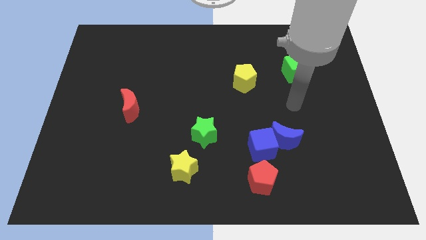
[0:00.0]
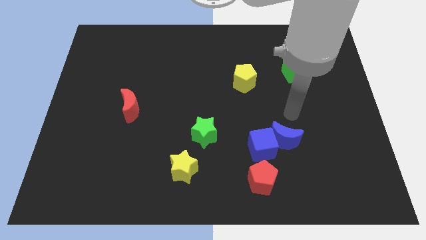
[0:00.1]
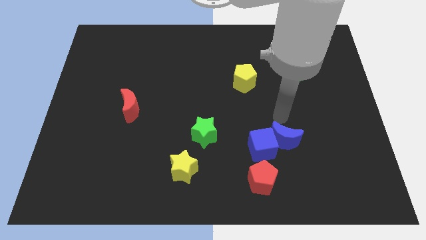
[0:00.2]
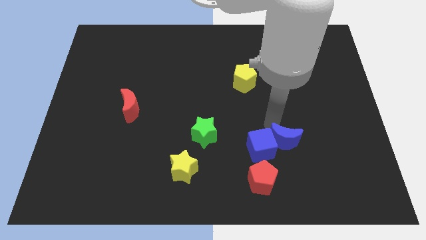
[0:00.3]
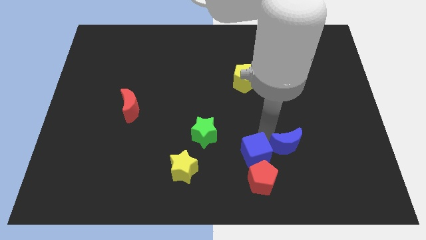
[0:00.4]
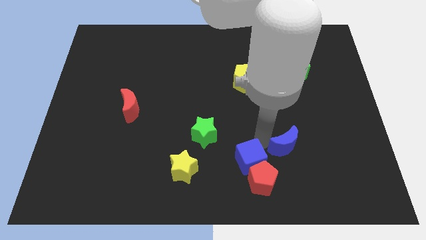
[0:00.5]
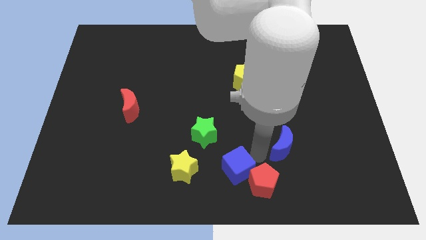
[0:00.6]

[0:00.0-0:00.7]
pull the blue moon apart from the blue cube

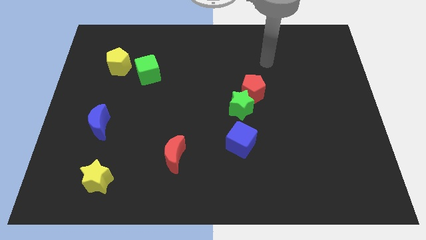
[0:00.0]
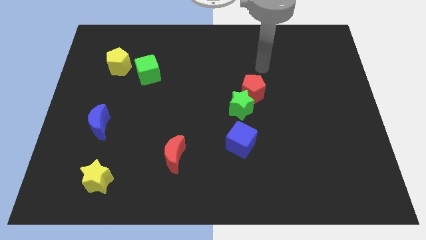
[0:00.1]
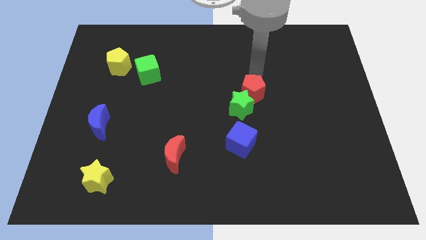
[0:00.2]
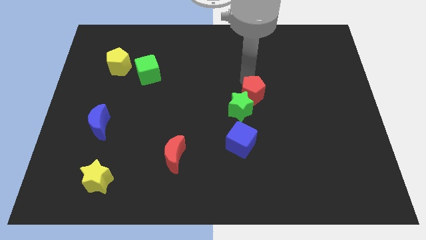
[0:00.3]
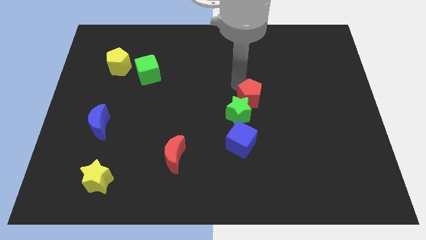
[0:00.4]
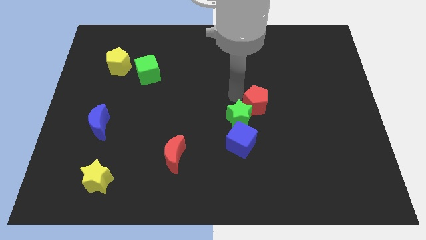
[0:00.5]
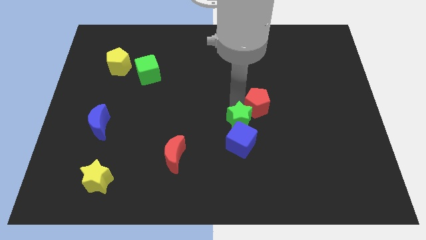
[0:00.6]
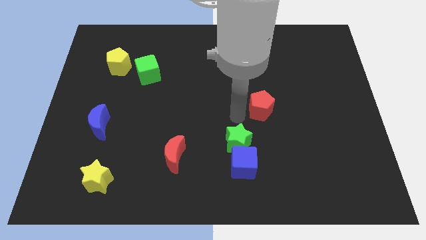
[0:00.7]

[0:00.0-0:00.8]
move the red pentagon away from the green star

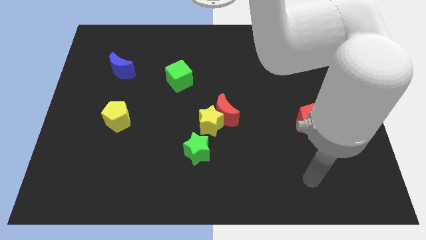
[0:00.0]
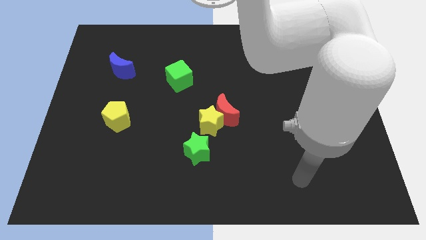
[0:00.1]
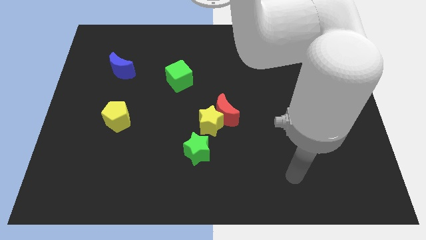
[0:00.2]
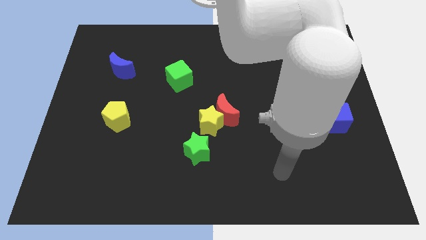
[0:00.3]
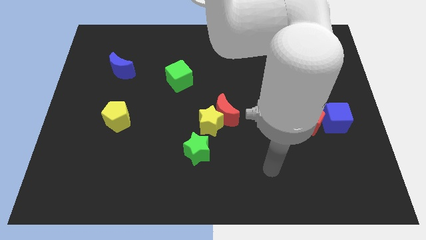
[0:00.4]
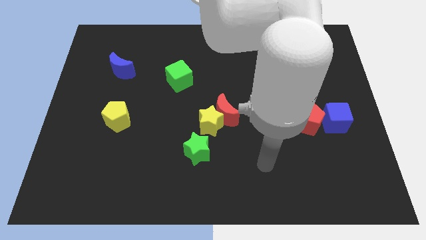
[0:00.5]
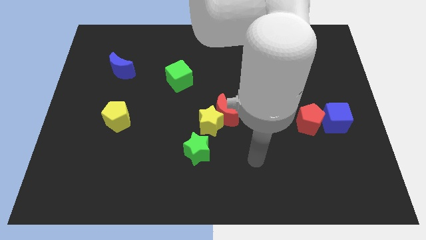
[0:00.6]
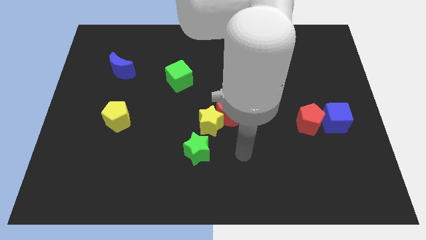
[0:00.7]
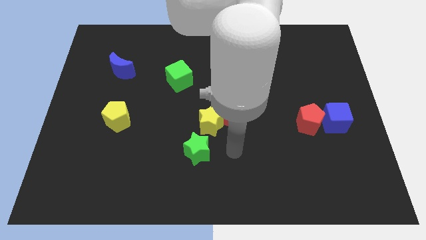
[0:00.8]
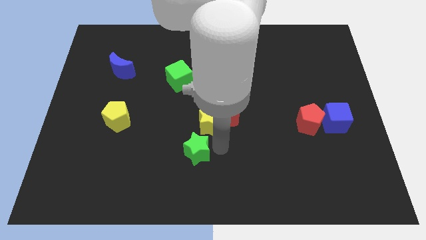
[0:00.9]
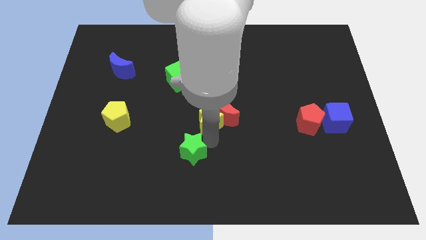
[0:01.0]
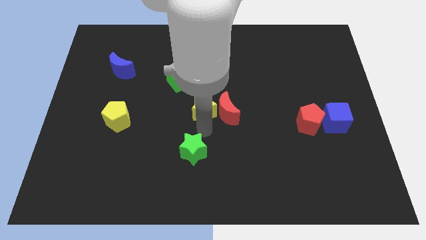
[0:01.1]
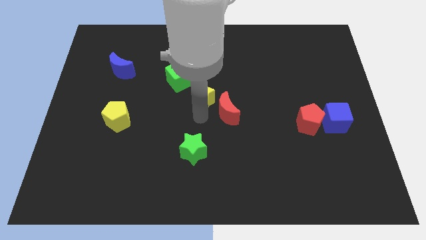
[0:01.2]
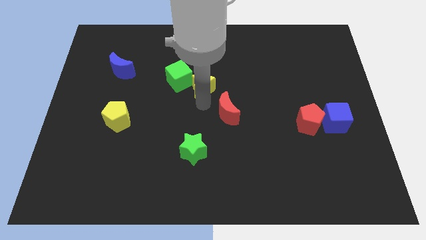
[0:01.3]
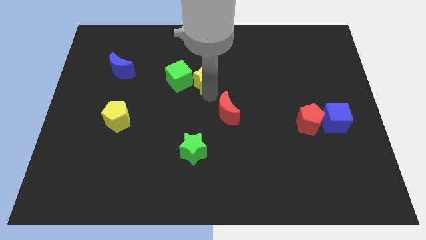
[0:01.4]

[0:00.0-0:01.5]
separate the red moon from the yellow star

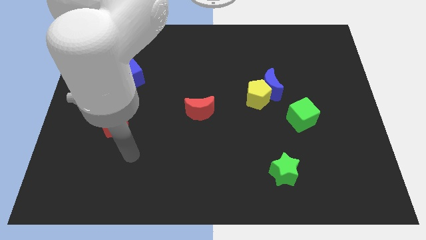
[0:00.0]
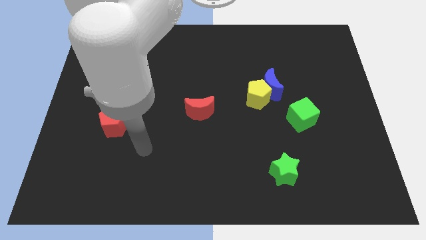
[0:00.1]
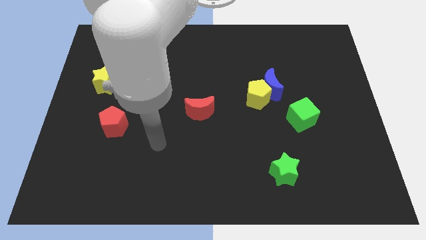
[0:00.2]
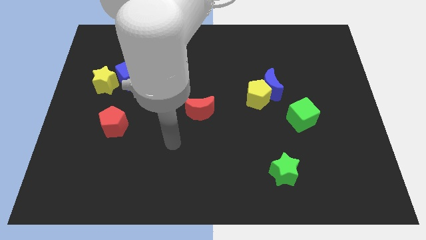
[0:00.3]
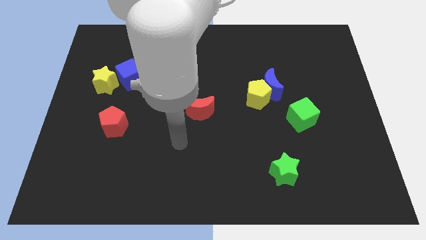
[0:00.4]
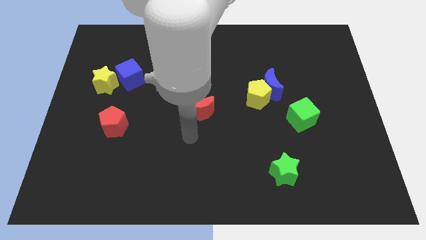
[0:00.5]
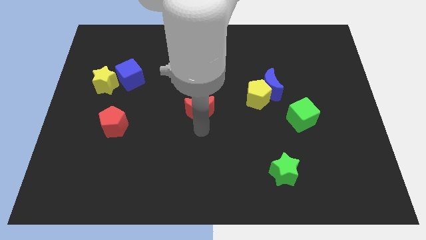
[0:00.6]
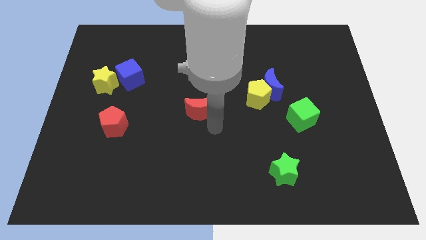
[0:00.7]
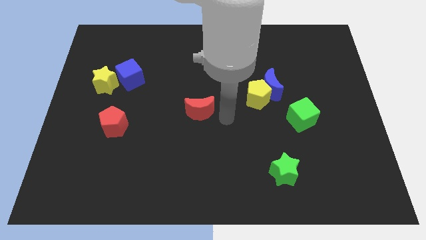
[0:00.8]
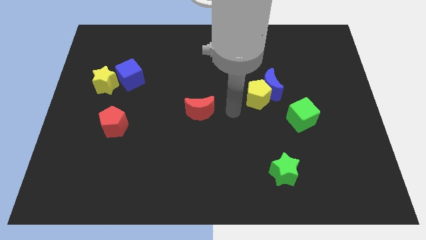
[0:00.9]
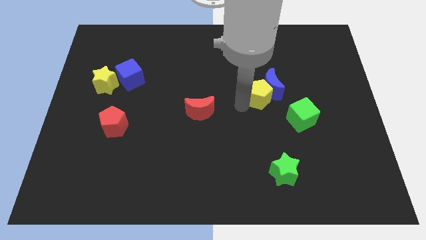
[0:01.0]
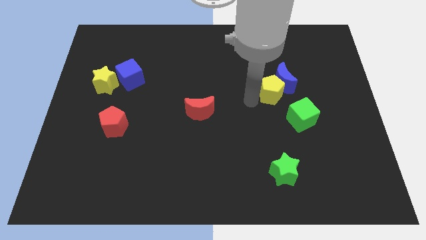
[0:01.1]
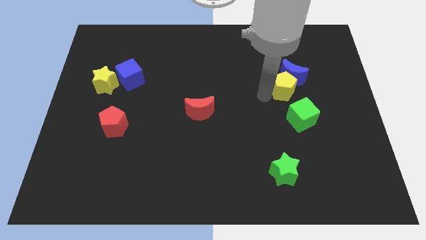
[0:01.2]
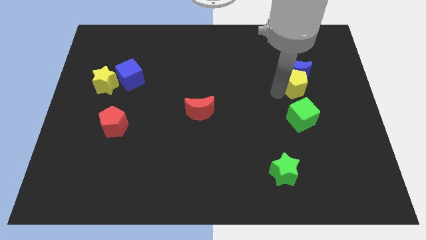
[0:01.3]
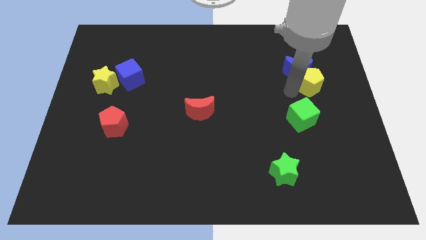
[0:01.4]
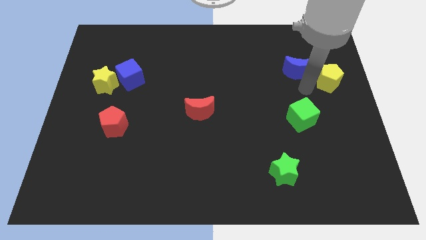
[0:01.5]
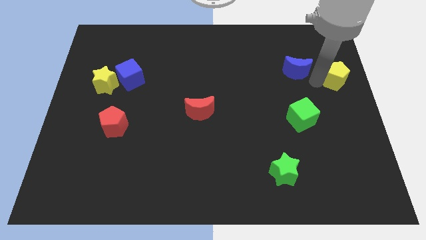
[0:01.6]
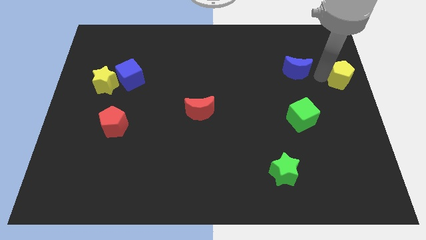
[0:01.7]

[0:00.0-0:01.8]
move the blue moon away from the yellow pentagon

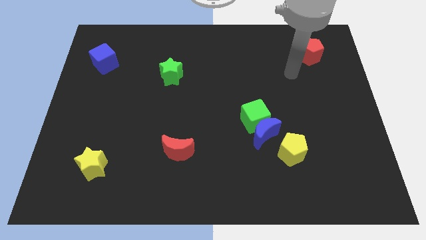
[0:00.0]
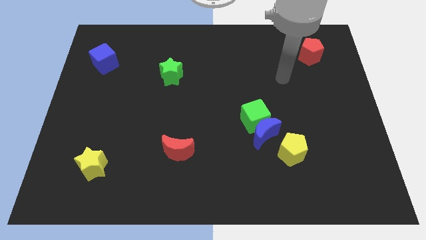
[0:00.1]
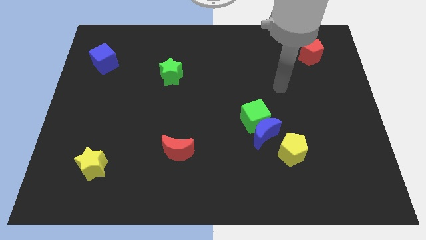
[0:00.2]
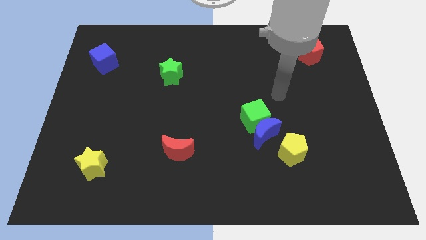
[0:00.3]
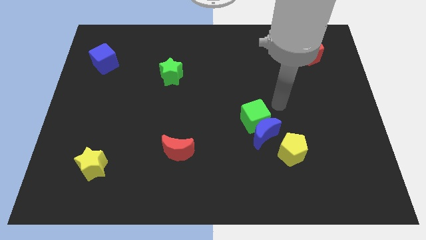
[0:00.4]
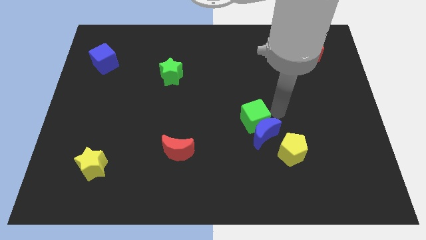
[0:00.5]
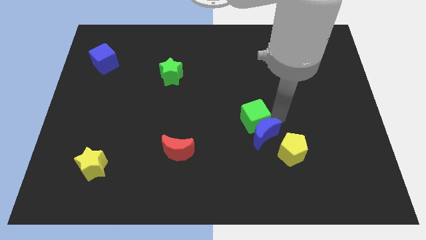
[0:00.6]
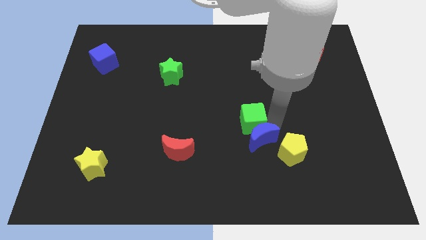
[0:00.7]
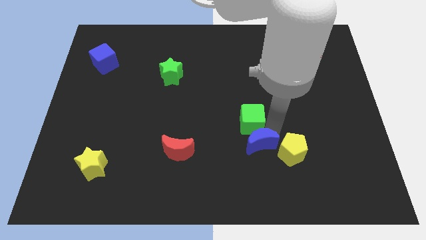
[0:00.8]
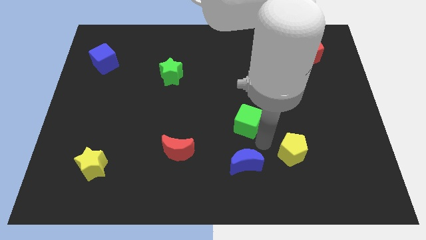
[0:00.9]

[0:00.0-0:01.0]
separate the green cube from the blue moon

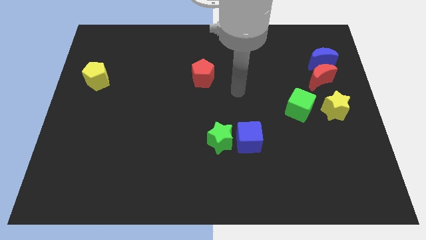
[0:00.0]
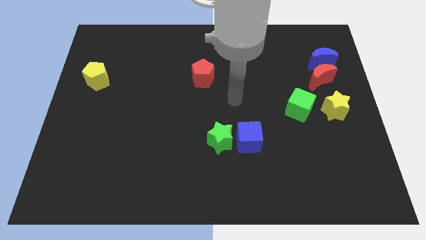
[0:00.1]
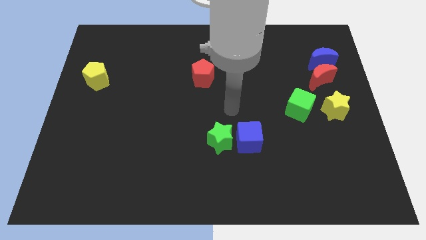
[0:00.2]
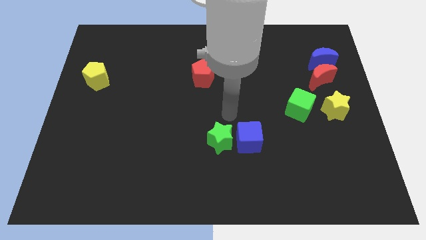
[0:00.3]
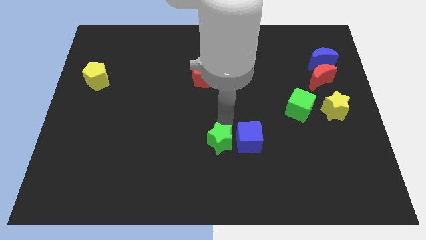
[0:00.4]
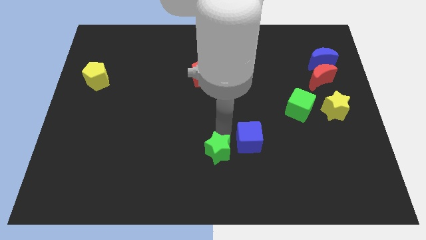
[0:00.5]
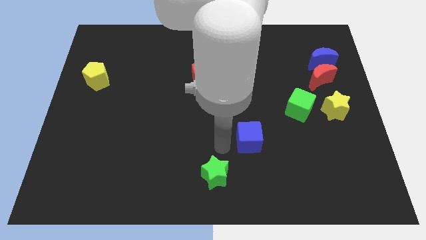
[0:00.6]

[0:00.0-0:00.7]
move the blue cube away from the green star

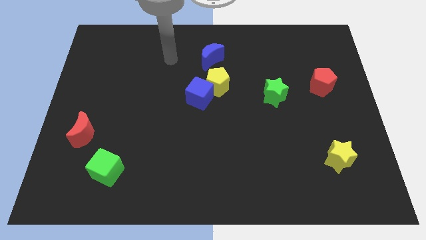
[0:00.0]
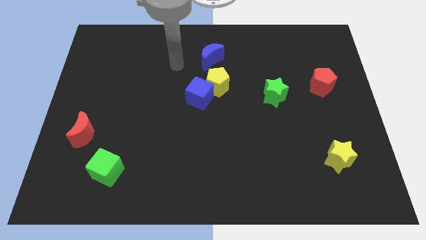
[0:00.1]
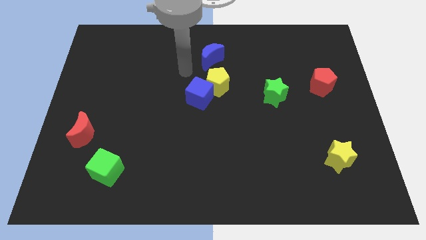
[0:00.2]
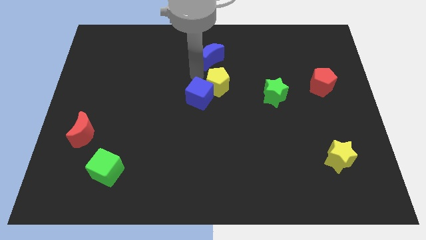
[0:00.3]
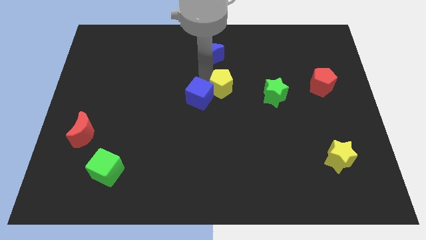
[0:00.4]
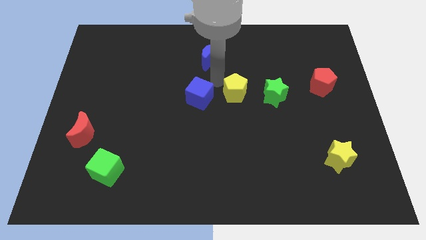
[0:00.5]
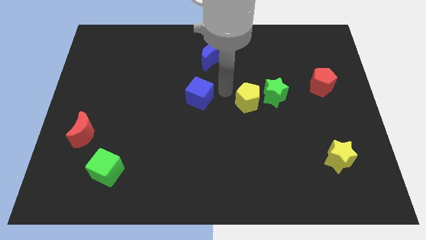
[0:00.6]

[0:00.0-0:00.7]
pull the blue cube apart from the yellow pentagon

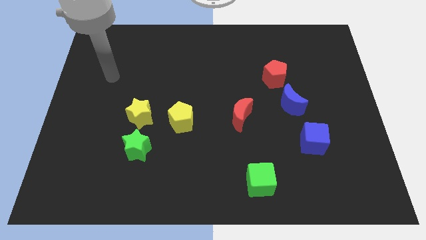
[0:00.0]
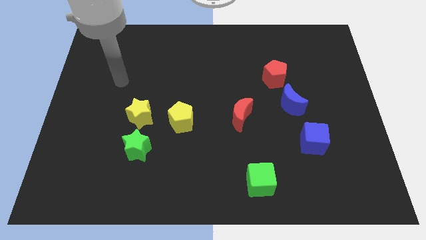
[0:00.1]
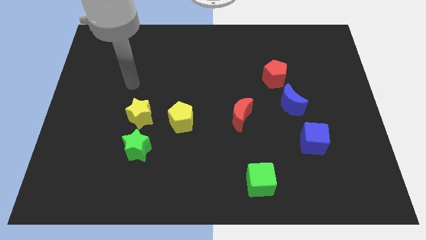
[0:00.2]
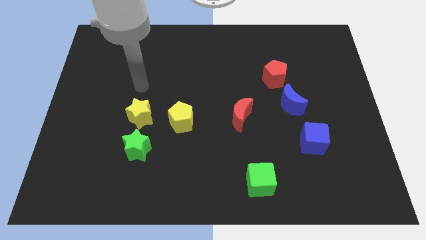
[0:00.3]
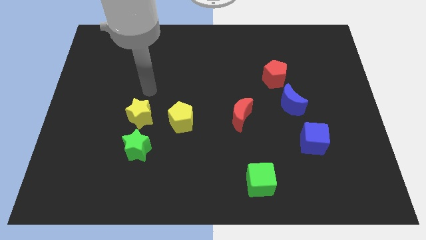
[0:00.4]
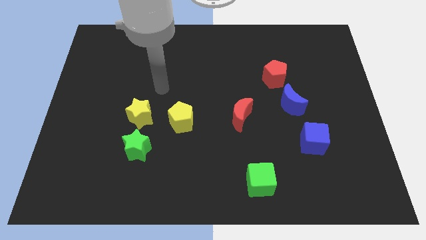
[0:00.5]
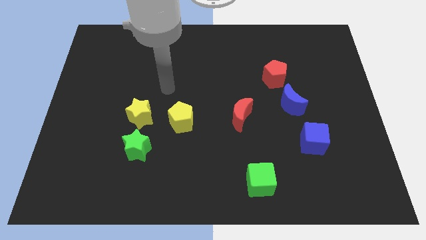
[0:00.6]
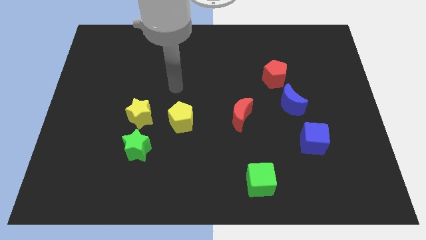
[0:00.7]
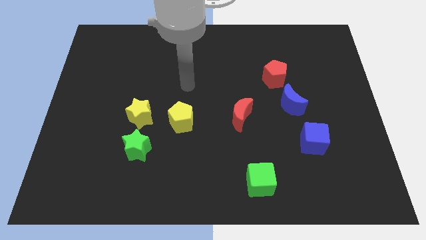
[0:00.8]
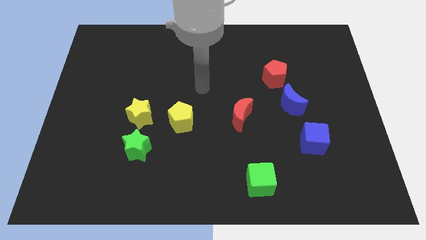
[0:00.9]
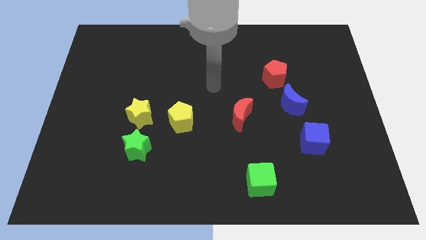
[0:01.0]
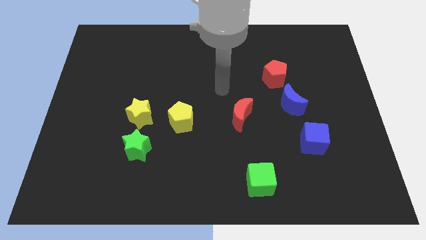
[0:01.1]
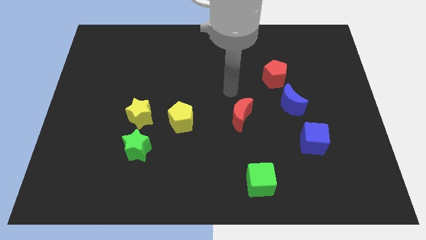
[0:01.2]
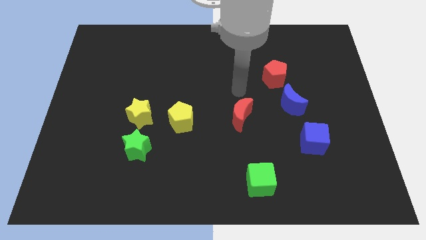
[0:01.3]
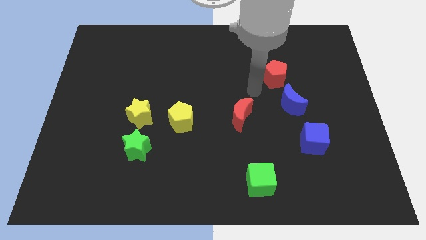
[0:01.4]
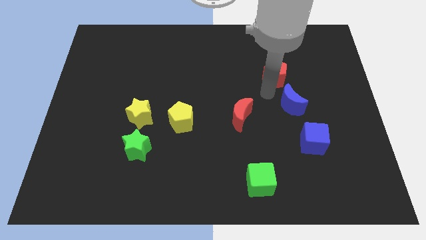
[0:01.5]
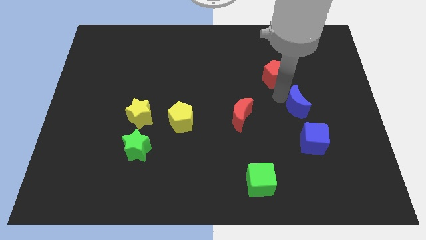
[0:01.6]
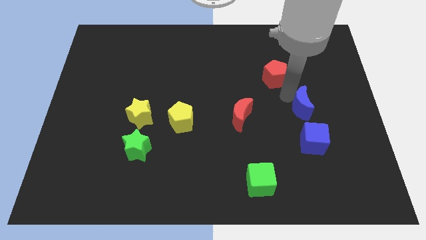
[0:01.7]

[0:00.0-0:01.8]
separate the red pentagon from the blue moon

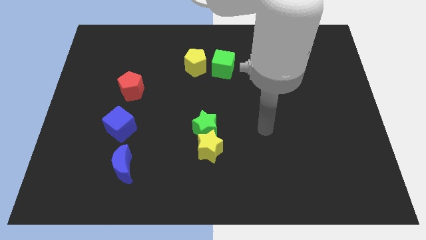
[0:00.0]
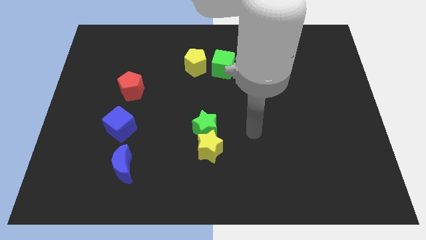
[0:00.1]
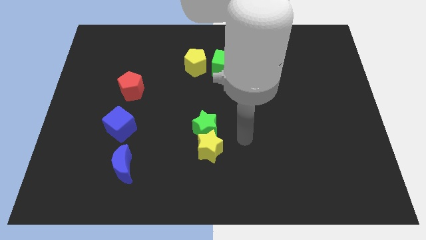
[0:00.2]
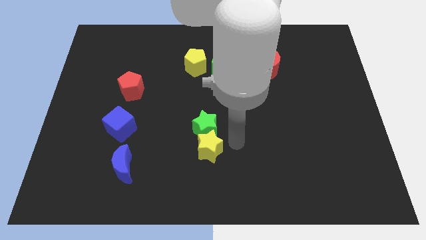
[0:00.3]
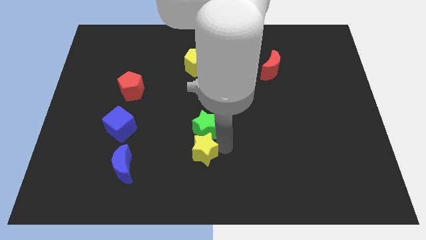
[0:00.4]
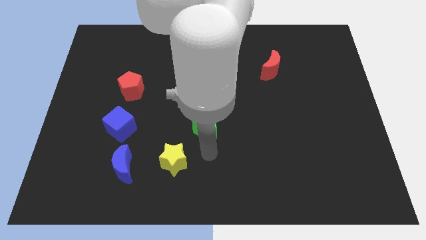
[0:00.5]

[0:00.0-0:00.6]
separate the green star from the yellow star
